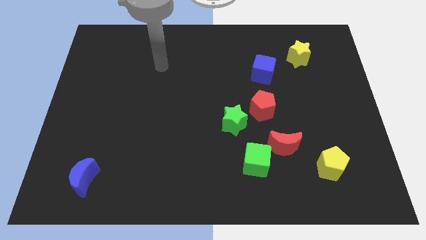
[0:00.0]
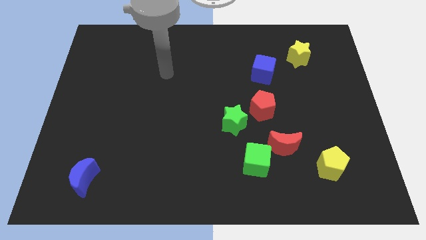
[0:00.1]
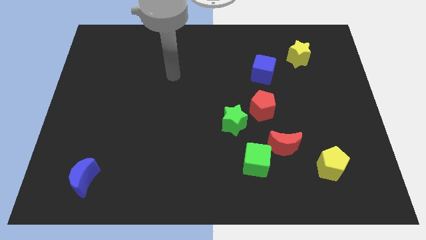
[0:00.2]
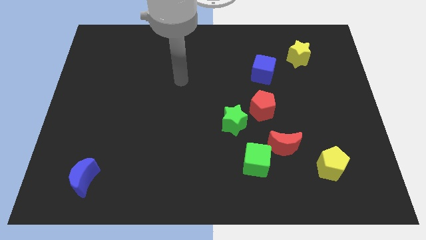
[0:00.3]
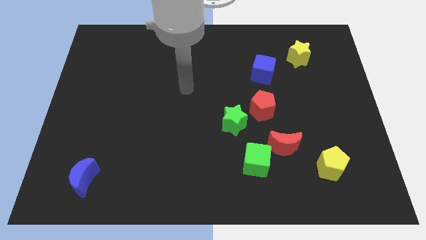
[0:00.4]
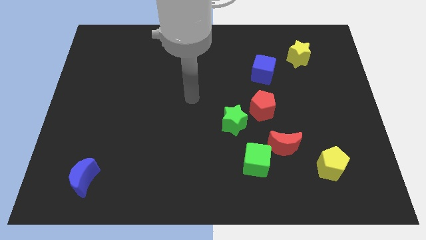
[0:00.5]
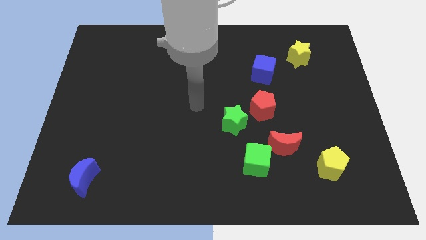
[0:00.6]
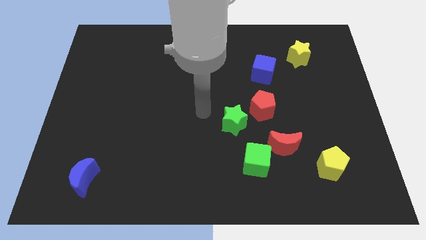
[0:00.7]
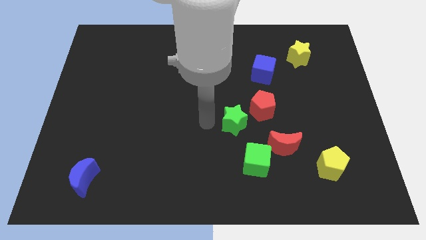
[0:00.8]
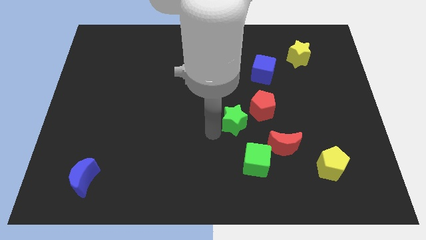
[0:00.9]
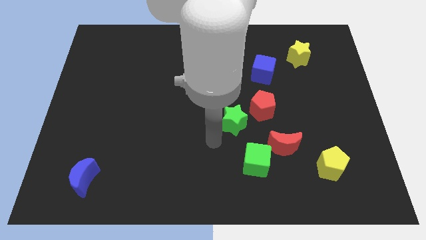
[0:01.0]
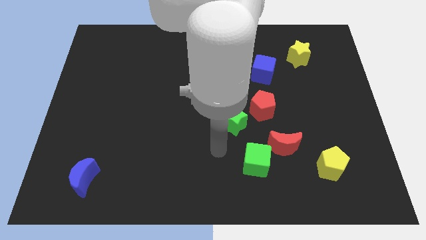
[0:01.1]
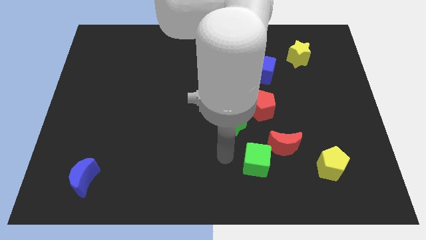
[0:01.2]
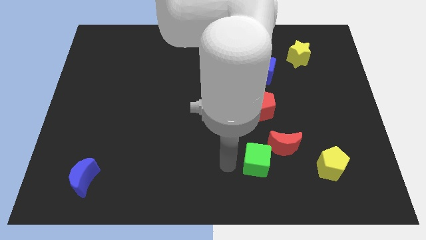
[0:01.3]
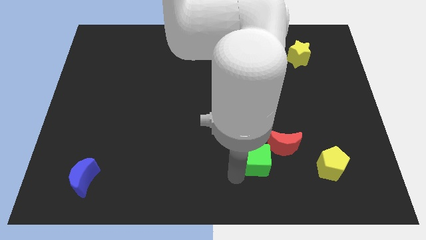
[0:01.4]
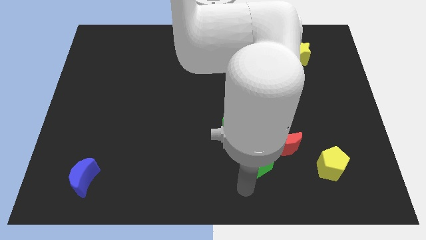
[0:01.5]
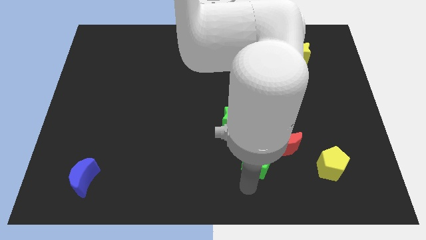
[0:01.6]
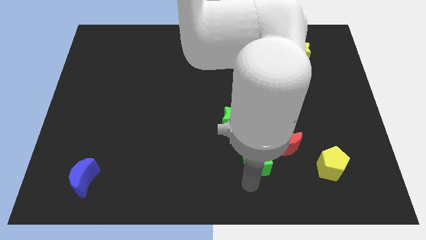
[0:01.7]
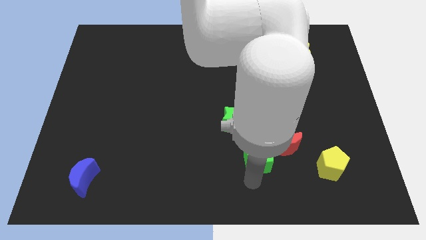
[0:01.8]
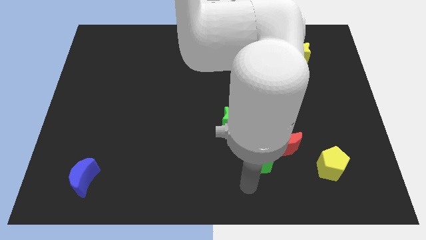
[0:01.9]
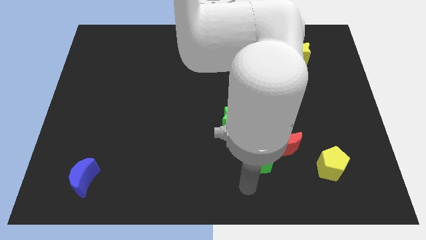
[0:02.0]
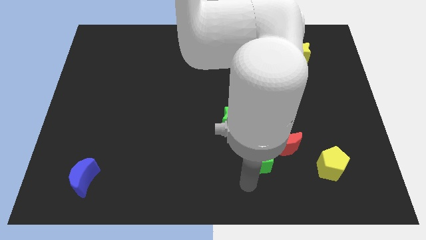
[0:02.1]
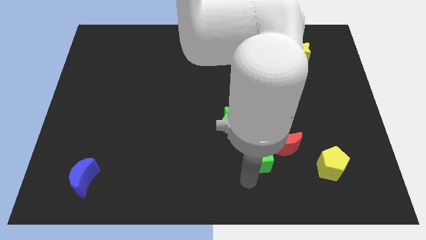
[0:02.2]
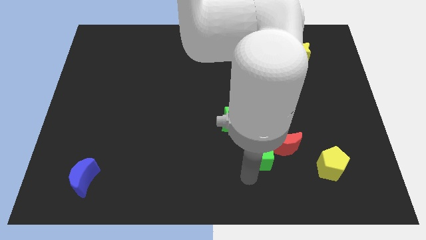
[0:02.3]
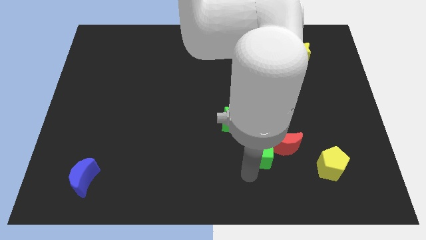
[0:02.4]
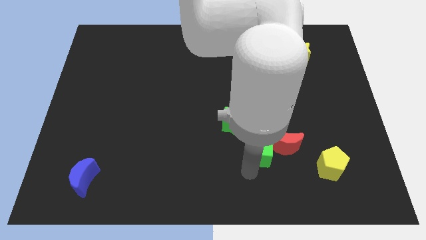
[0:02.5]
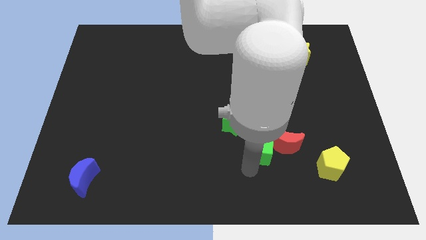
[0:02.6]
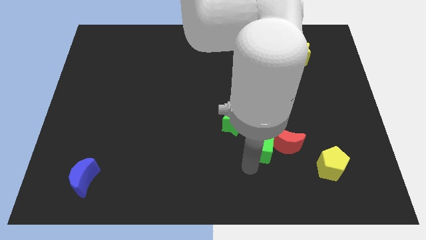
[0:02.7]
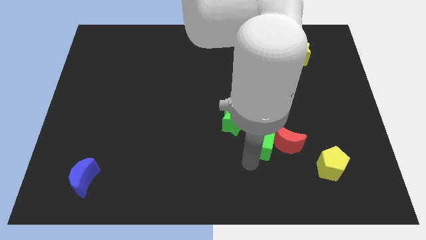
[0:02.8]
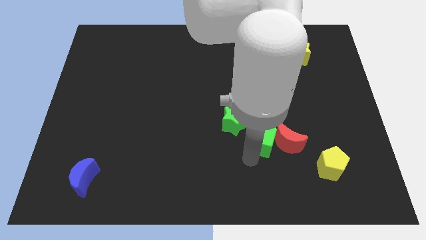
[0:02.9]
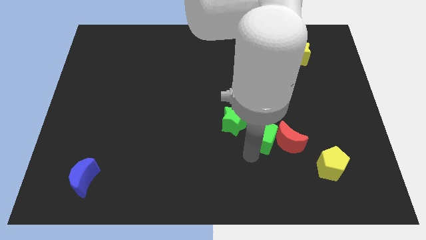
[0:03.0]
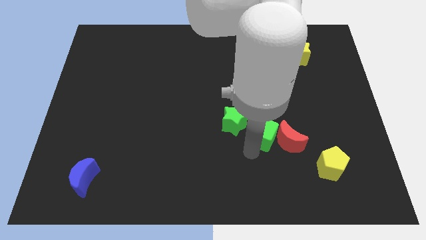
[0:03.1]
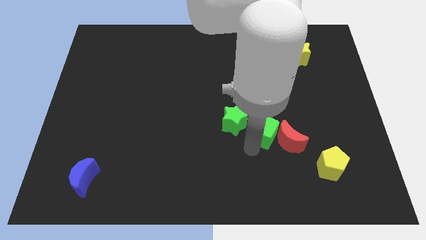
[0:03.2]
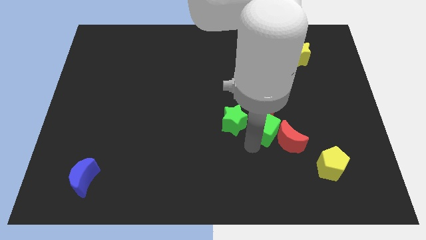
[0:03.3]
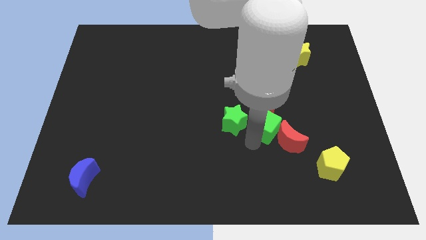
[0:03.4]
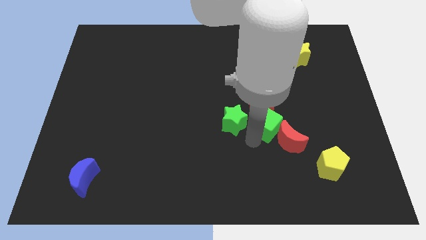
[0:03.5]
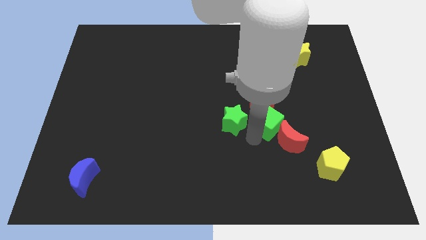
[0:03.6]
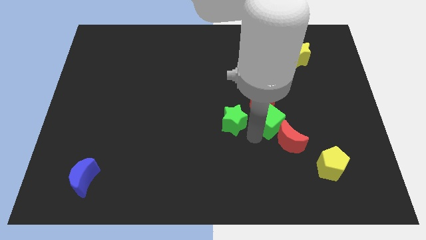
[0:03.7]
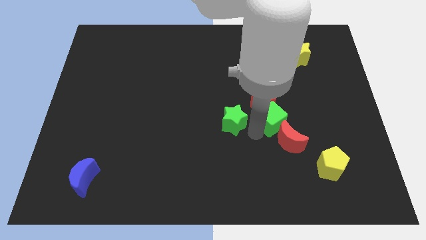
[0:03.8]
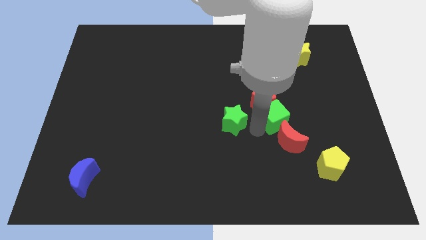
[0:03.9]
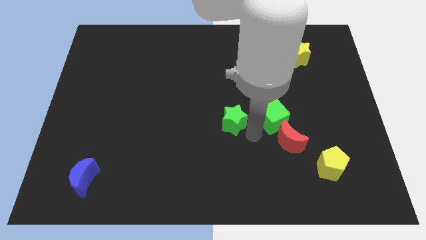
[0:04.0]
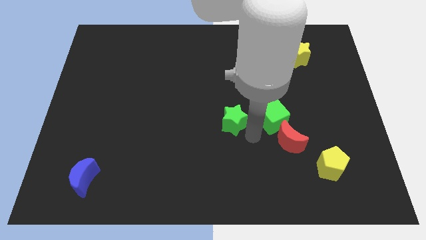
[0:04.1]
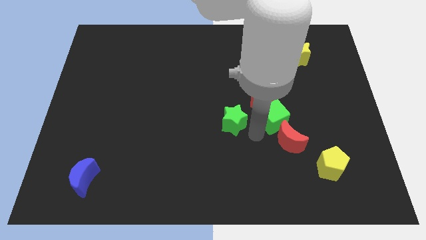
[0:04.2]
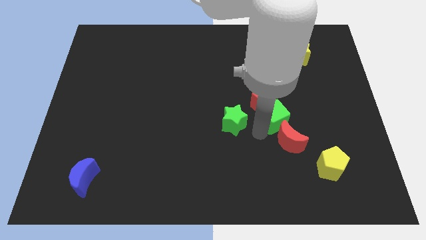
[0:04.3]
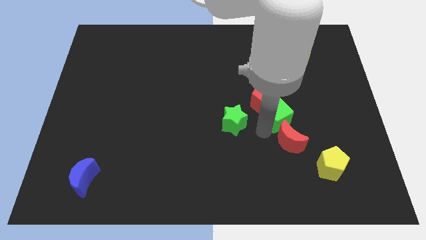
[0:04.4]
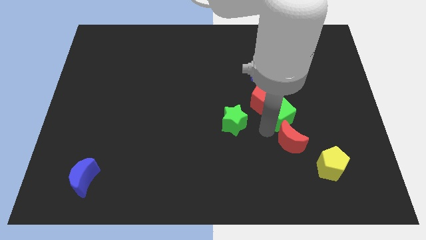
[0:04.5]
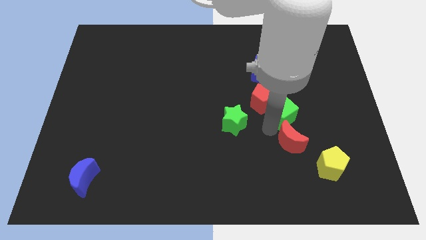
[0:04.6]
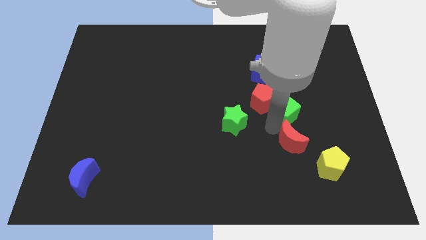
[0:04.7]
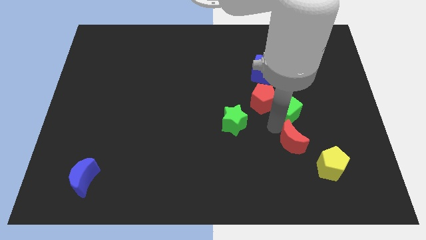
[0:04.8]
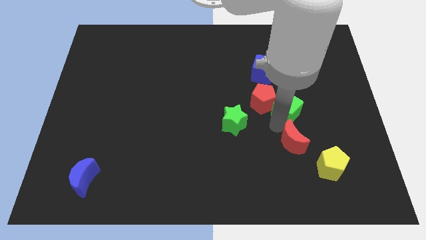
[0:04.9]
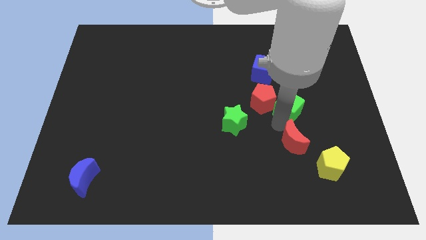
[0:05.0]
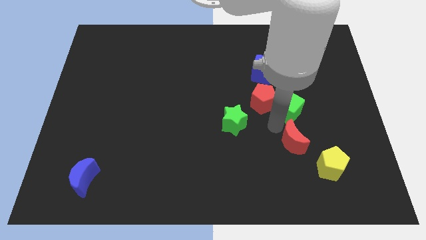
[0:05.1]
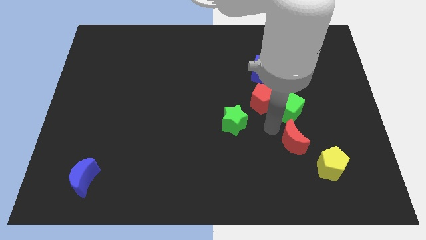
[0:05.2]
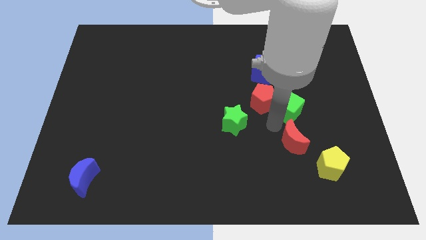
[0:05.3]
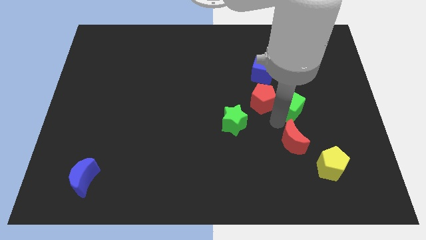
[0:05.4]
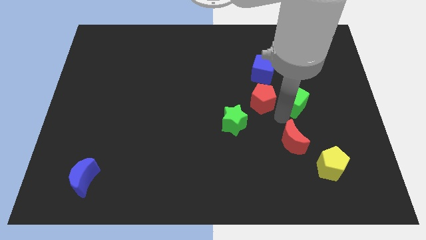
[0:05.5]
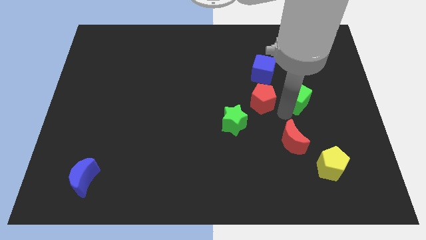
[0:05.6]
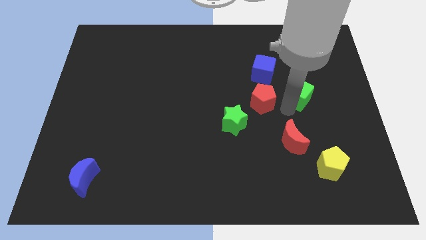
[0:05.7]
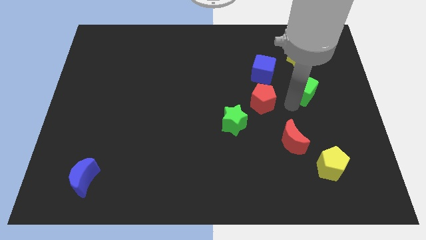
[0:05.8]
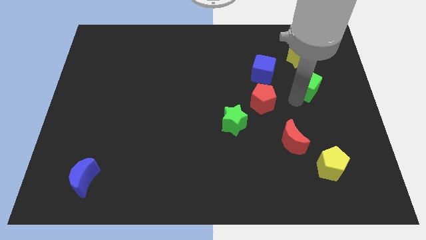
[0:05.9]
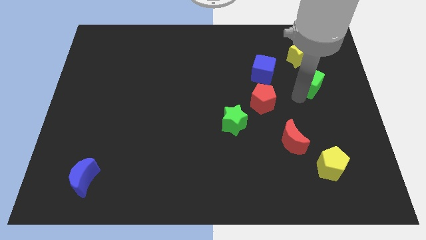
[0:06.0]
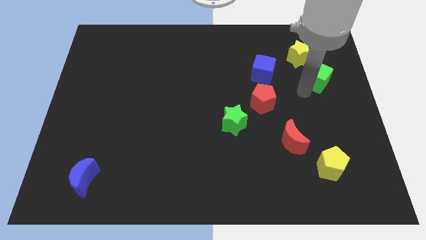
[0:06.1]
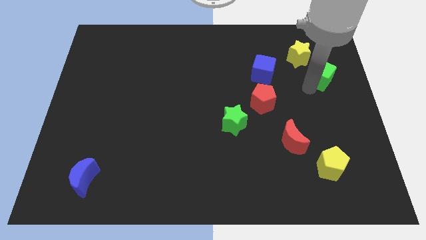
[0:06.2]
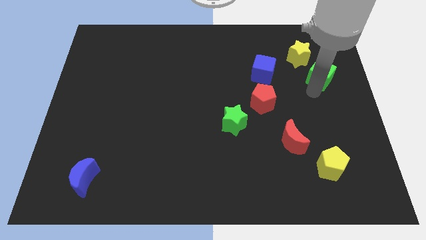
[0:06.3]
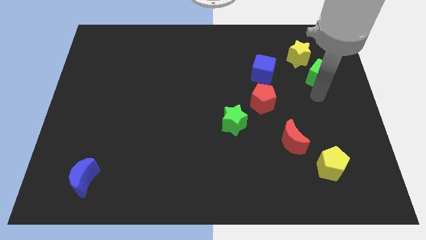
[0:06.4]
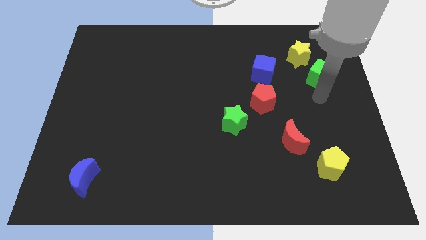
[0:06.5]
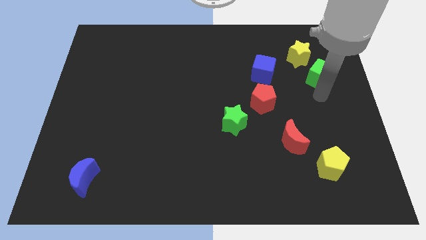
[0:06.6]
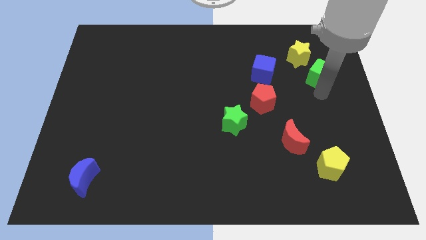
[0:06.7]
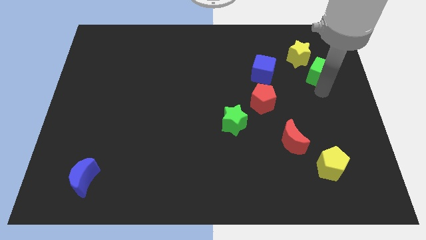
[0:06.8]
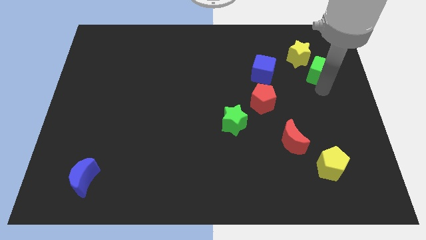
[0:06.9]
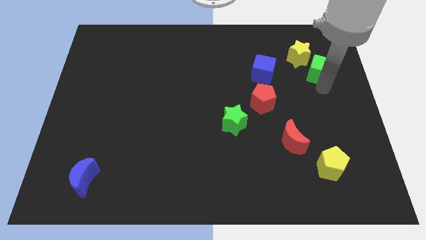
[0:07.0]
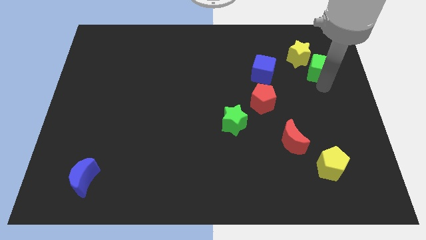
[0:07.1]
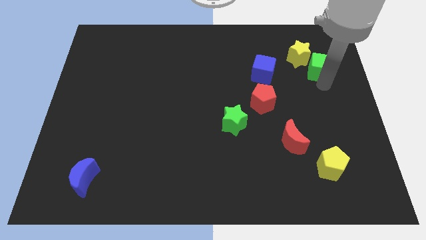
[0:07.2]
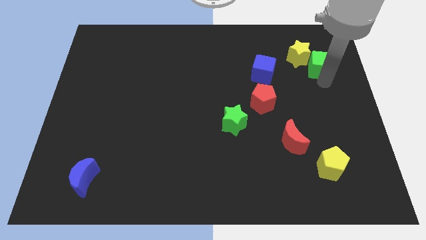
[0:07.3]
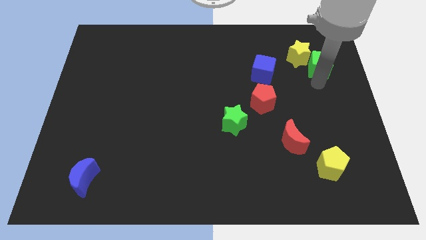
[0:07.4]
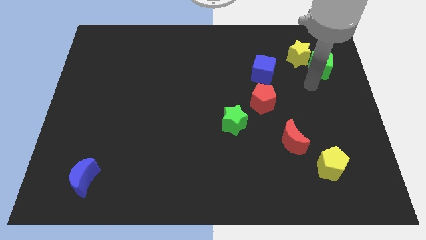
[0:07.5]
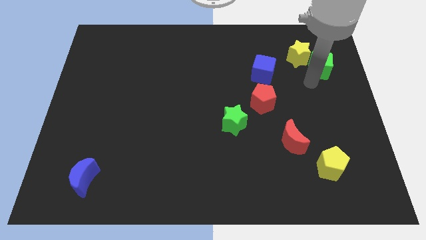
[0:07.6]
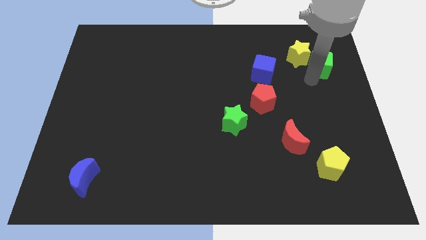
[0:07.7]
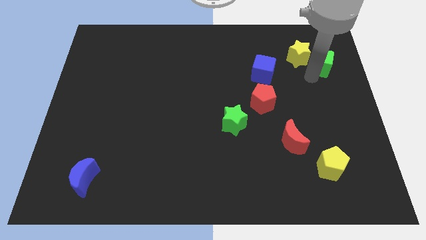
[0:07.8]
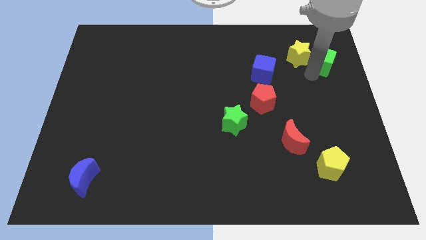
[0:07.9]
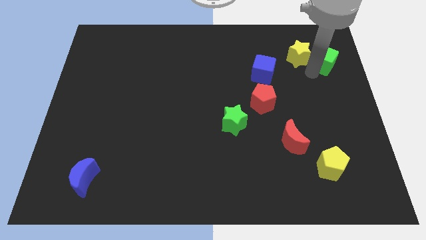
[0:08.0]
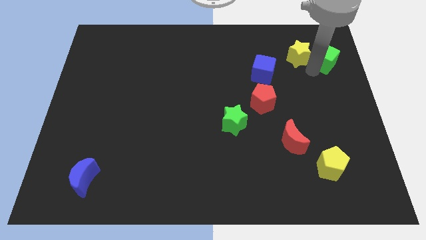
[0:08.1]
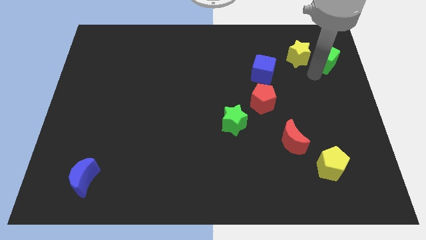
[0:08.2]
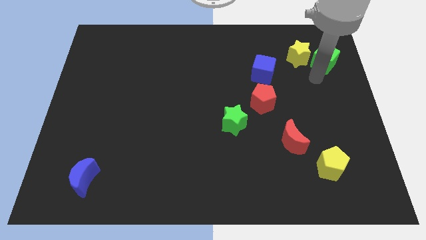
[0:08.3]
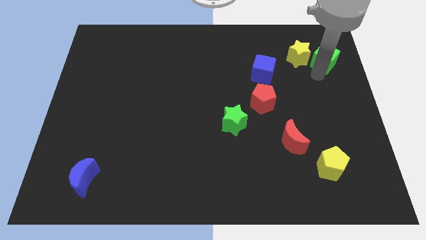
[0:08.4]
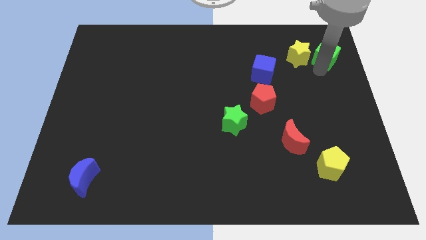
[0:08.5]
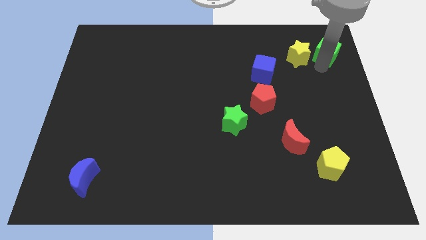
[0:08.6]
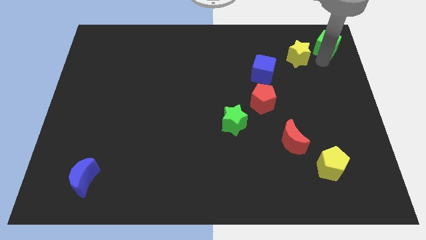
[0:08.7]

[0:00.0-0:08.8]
put the green cube to the top right
